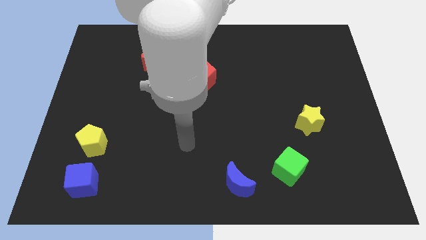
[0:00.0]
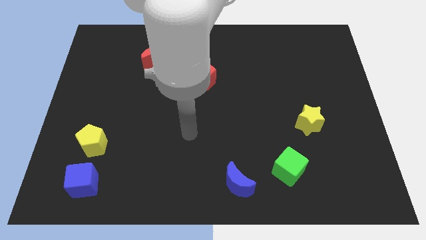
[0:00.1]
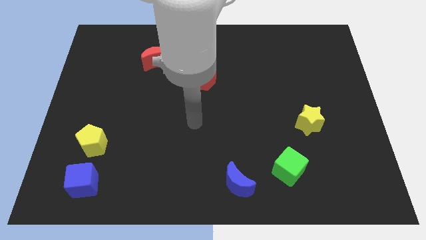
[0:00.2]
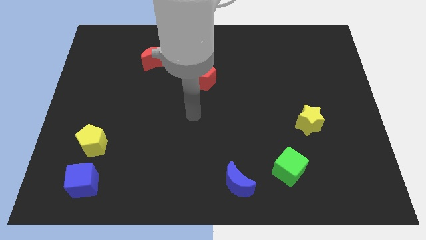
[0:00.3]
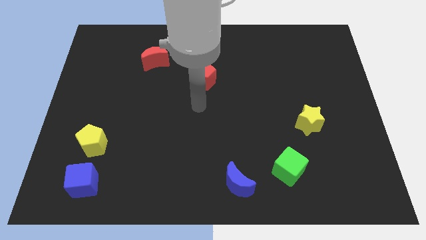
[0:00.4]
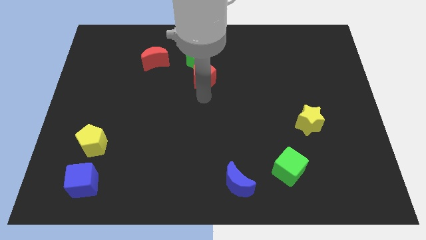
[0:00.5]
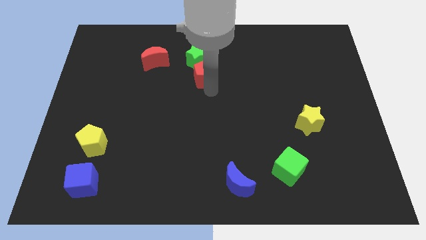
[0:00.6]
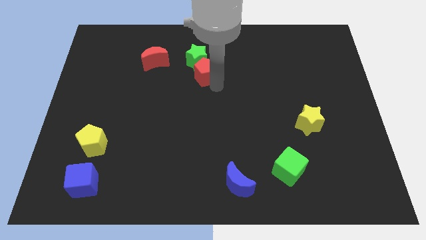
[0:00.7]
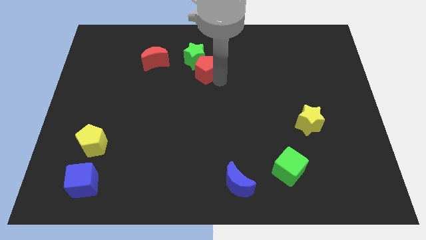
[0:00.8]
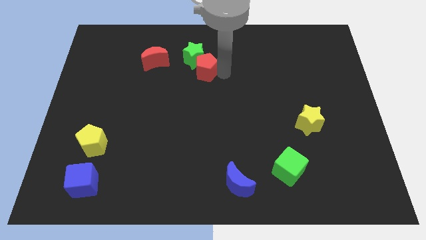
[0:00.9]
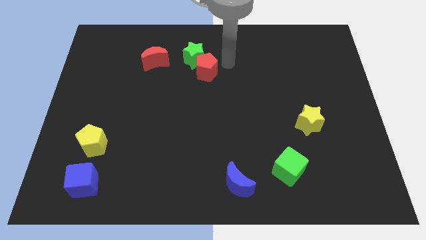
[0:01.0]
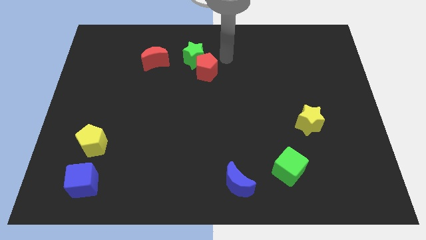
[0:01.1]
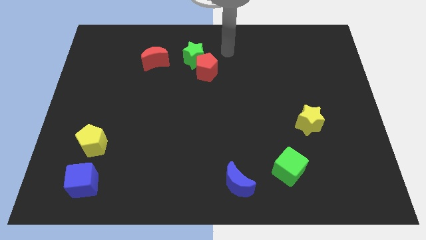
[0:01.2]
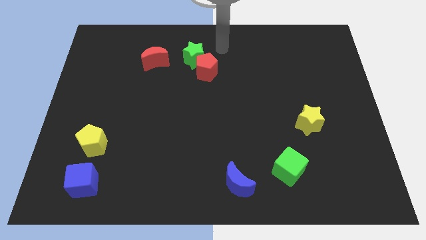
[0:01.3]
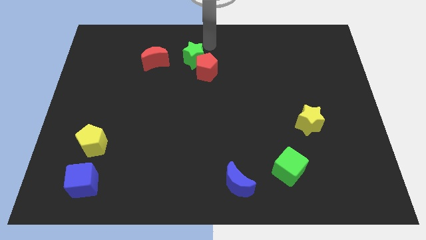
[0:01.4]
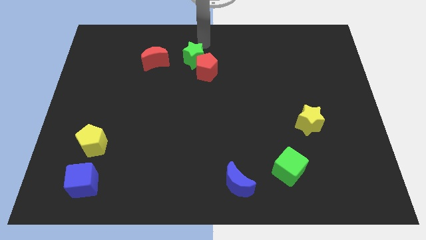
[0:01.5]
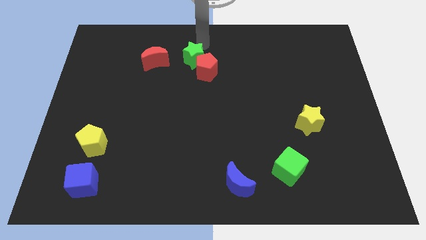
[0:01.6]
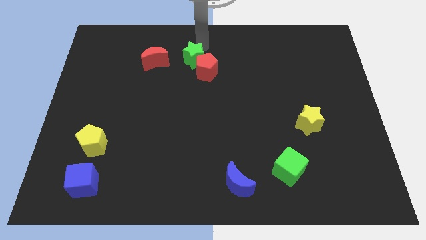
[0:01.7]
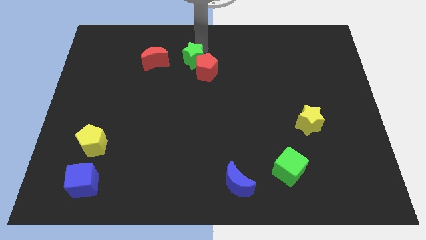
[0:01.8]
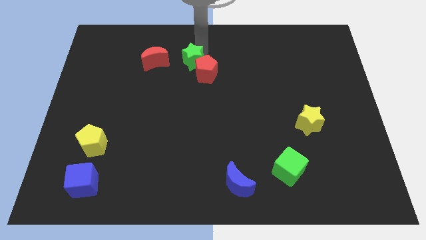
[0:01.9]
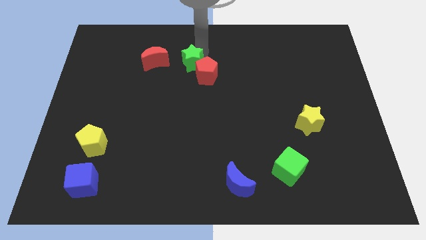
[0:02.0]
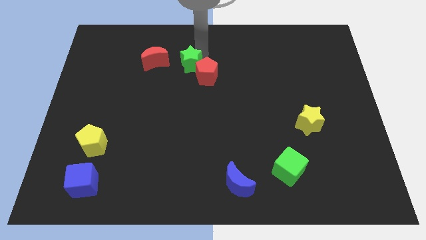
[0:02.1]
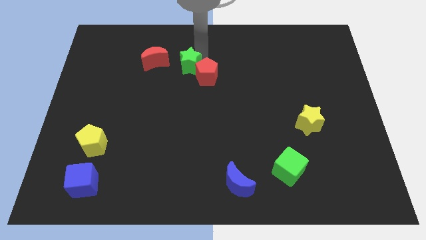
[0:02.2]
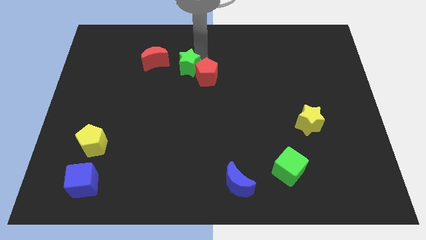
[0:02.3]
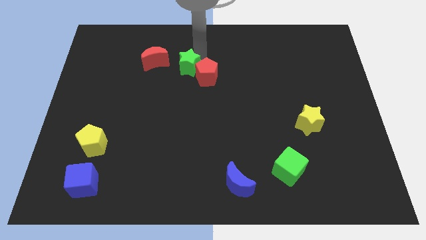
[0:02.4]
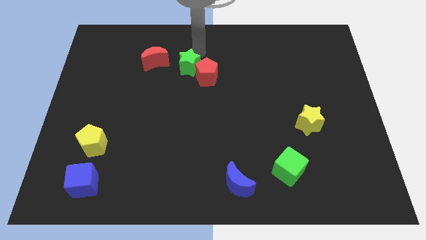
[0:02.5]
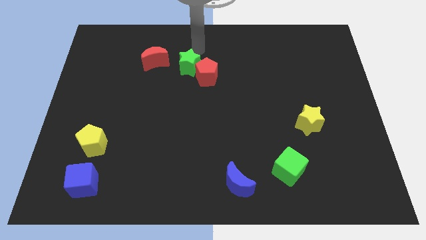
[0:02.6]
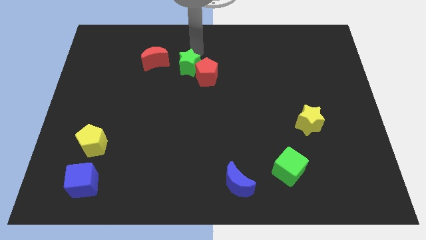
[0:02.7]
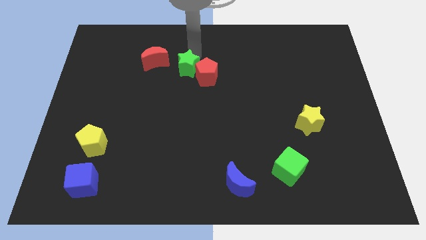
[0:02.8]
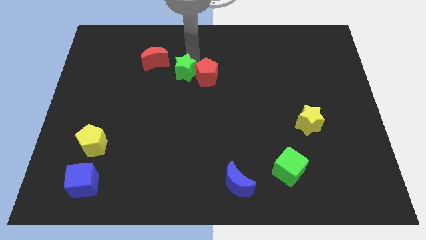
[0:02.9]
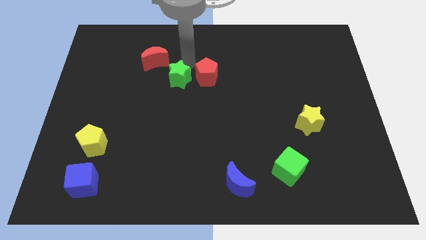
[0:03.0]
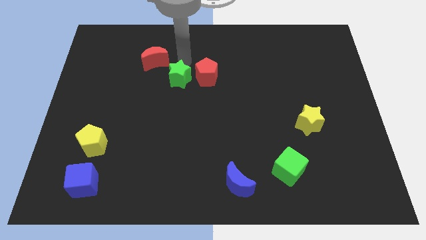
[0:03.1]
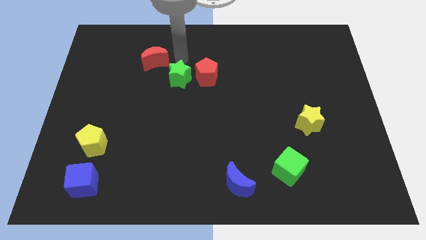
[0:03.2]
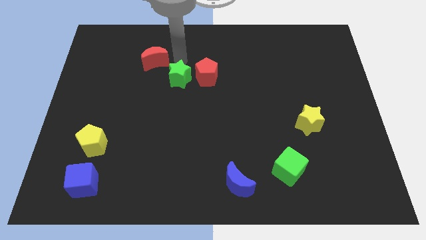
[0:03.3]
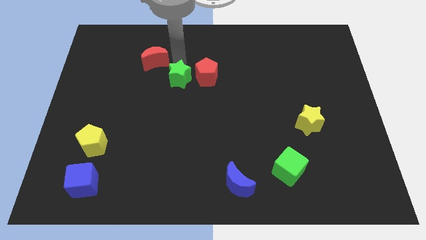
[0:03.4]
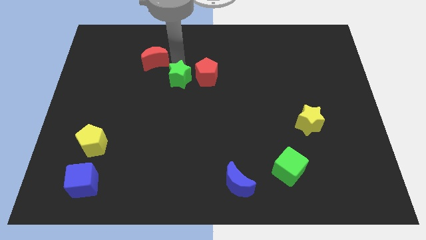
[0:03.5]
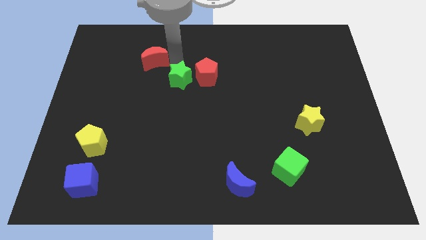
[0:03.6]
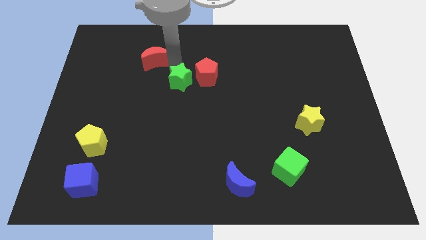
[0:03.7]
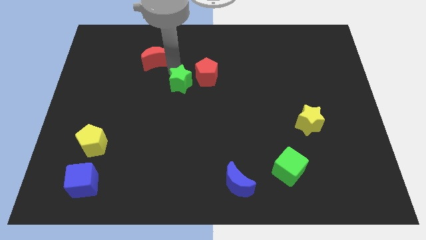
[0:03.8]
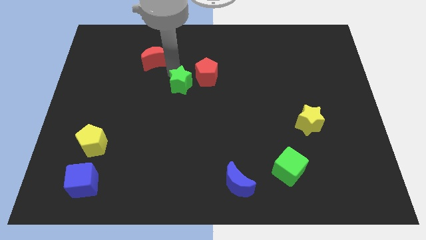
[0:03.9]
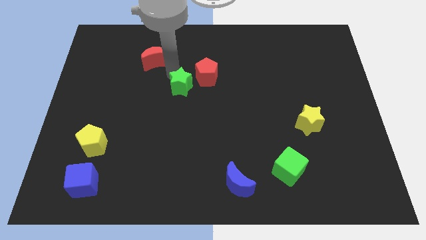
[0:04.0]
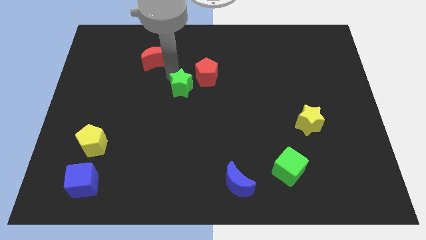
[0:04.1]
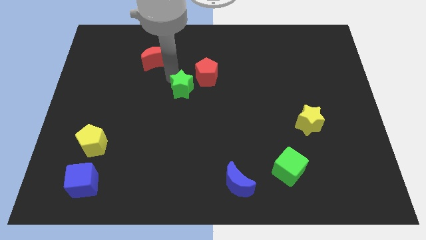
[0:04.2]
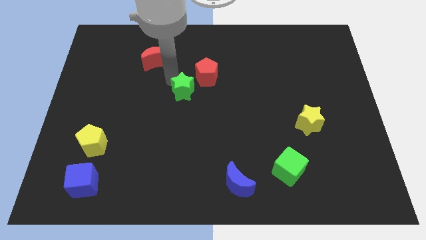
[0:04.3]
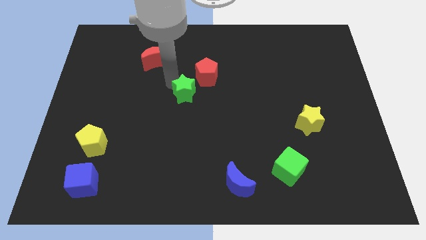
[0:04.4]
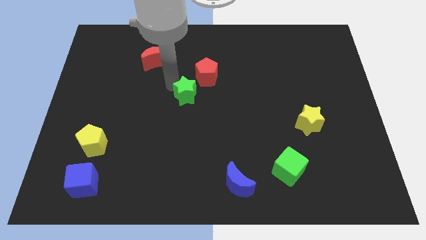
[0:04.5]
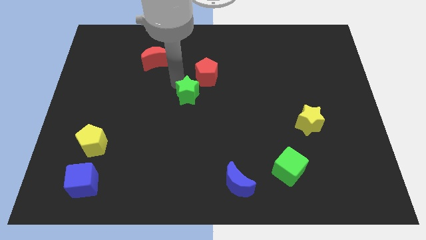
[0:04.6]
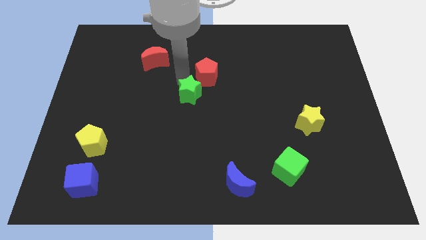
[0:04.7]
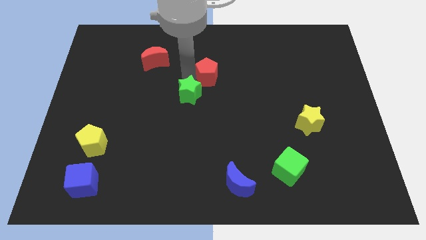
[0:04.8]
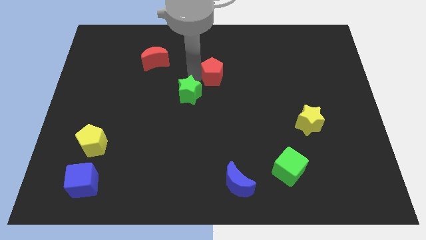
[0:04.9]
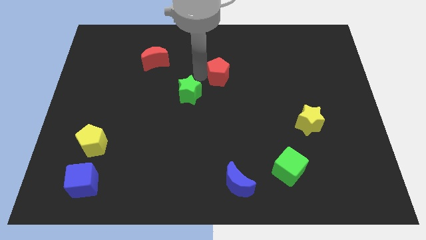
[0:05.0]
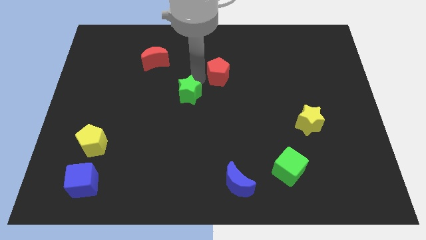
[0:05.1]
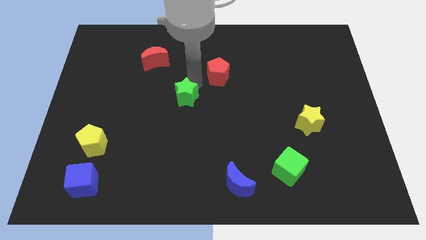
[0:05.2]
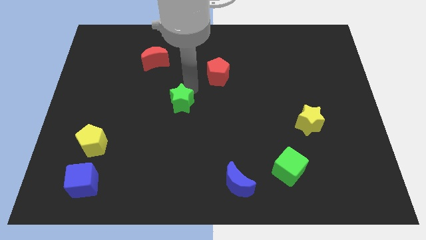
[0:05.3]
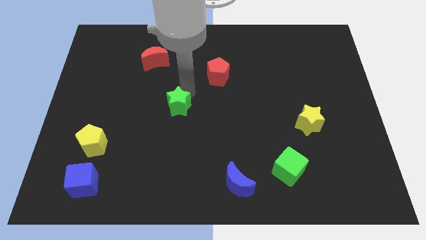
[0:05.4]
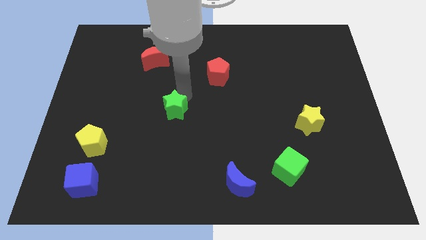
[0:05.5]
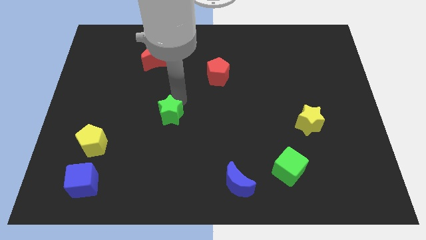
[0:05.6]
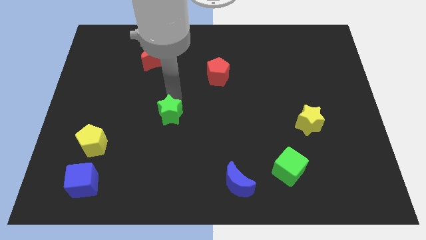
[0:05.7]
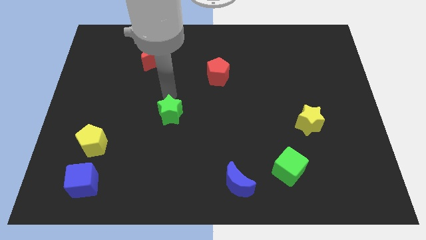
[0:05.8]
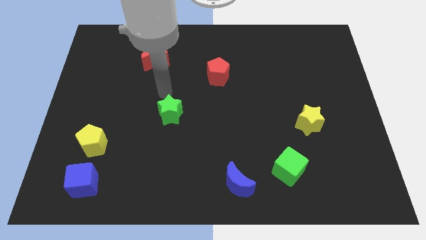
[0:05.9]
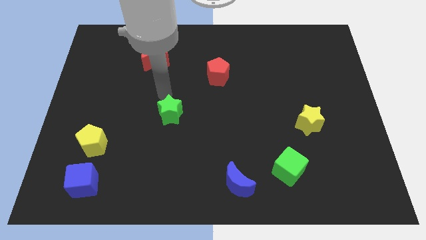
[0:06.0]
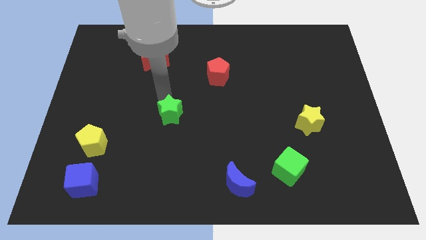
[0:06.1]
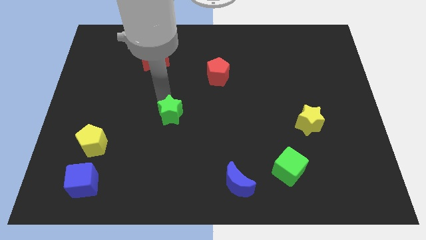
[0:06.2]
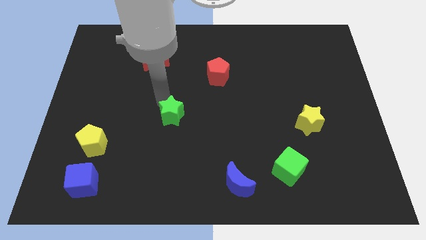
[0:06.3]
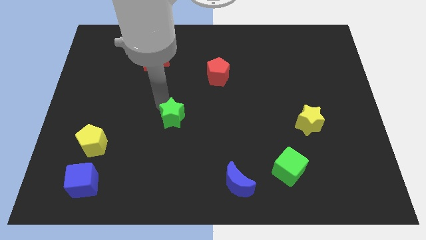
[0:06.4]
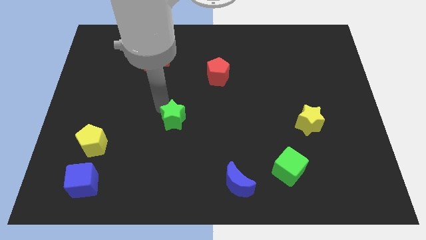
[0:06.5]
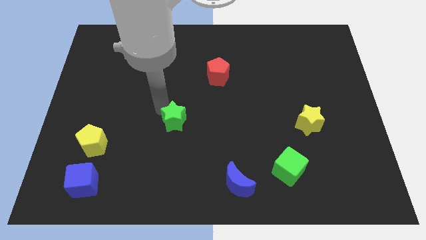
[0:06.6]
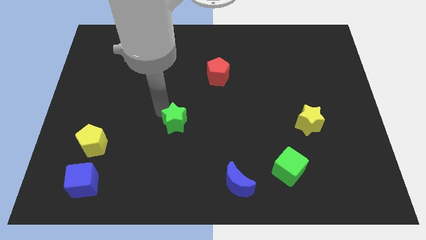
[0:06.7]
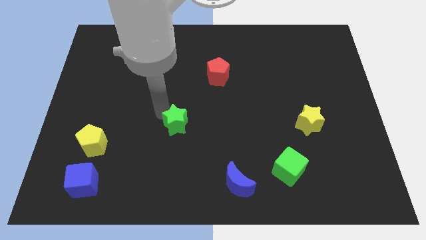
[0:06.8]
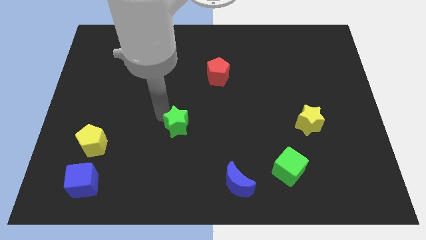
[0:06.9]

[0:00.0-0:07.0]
push the green star down

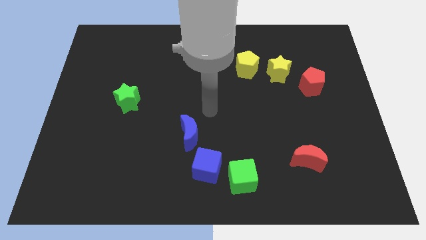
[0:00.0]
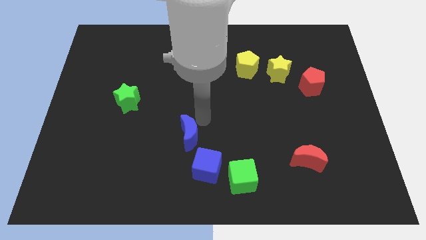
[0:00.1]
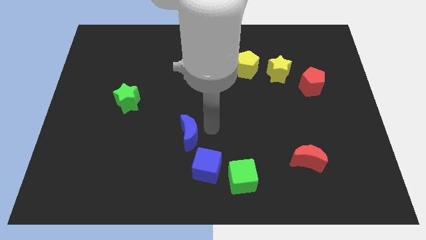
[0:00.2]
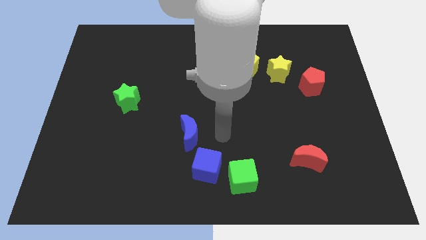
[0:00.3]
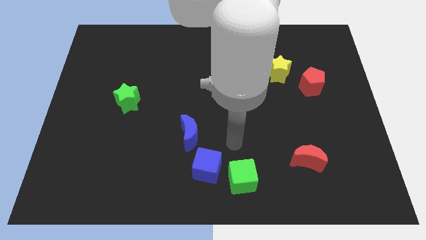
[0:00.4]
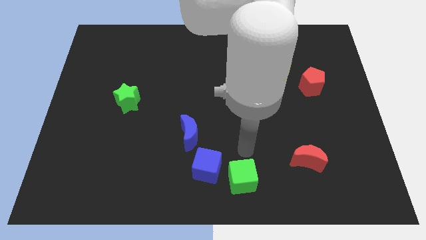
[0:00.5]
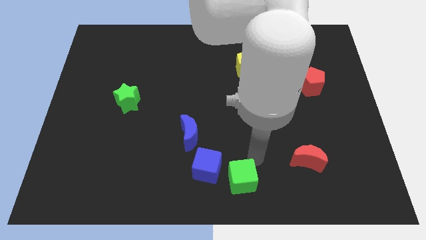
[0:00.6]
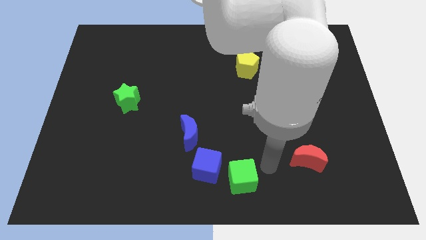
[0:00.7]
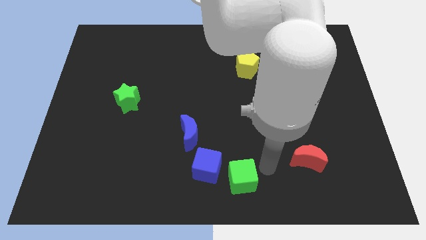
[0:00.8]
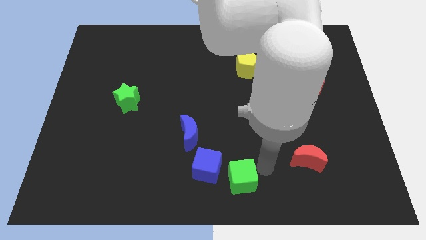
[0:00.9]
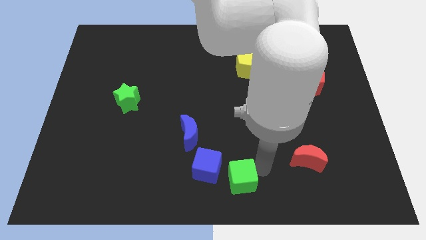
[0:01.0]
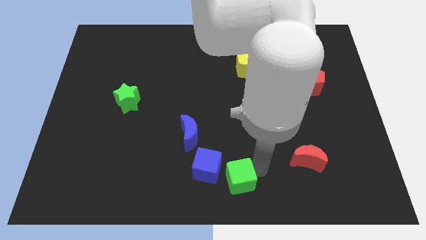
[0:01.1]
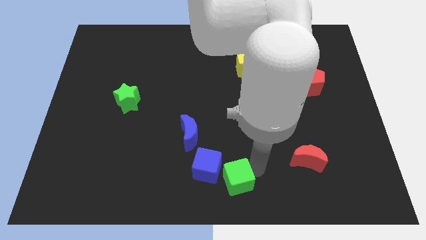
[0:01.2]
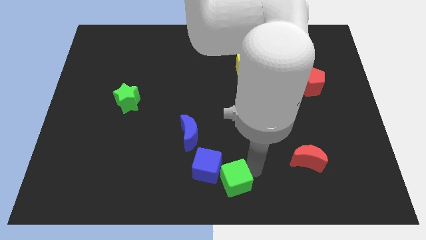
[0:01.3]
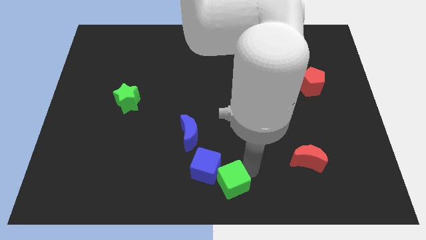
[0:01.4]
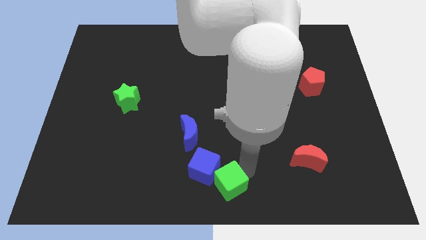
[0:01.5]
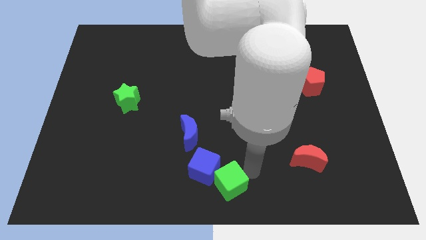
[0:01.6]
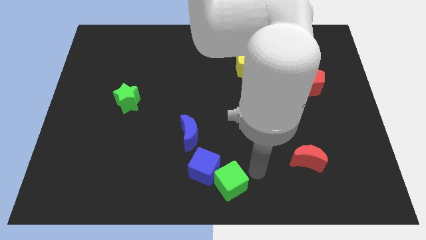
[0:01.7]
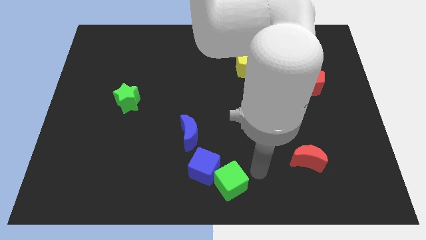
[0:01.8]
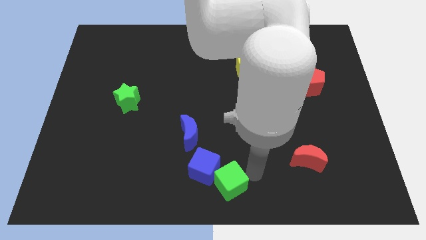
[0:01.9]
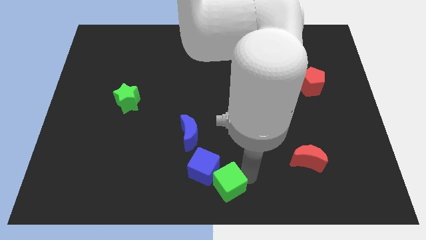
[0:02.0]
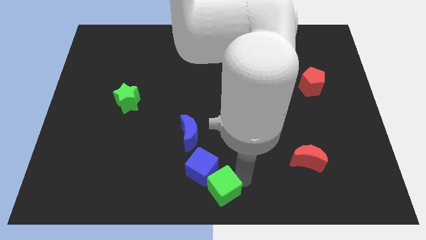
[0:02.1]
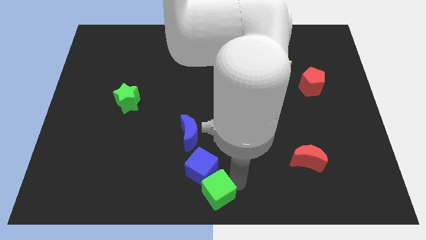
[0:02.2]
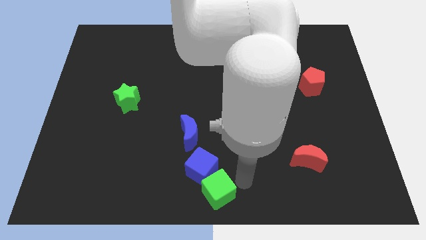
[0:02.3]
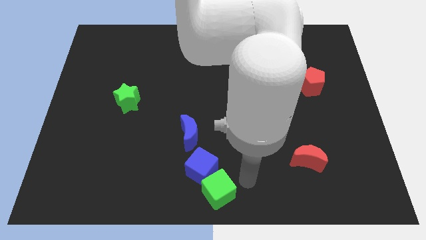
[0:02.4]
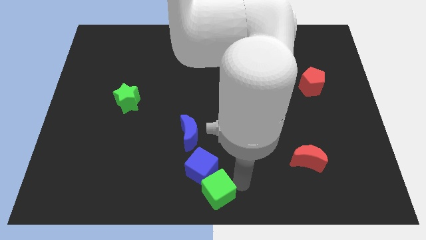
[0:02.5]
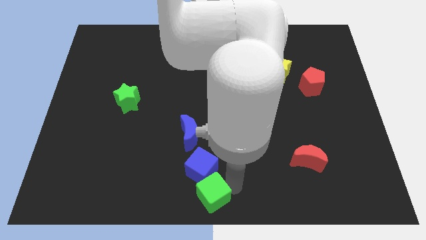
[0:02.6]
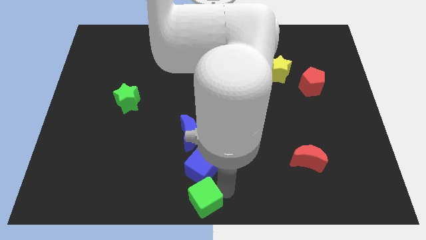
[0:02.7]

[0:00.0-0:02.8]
slide the green cube to the left a bit
